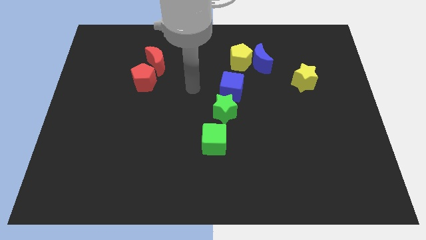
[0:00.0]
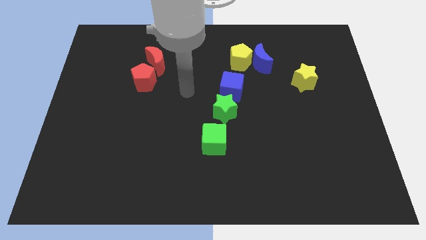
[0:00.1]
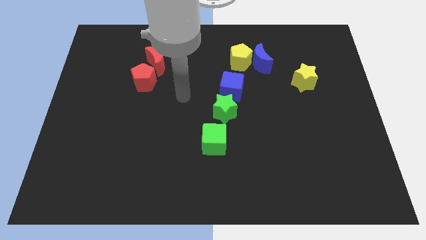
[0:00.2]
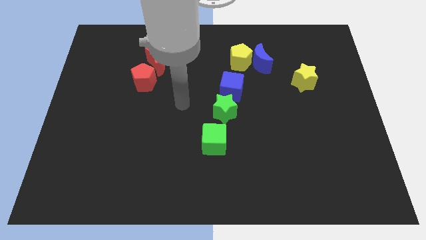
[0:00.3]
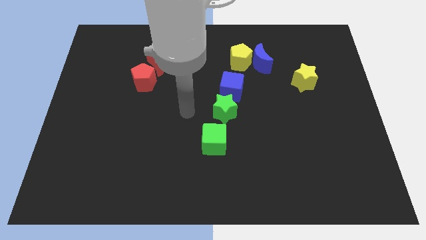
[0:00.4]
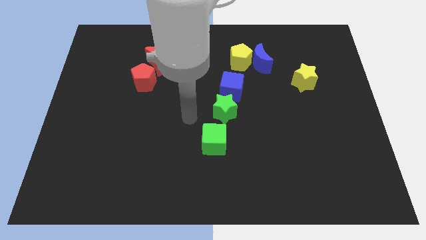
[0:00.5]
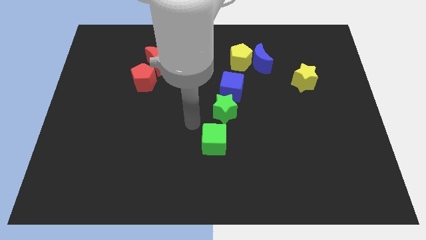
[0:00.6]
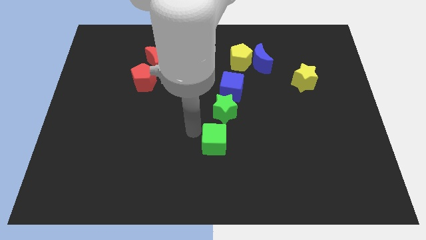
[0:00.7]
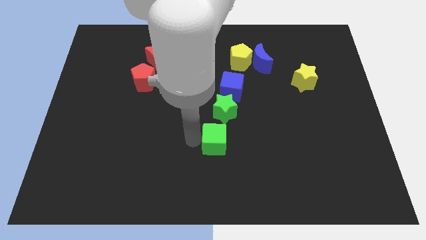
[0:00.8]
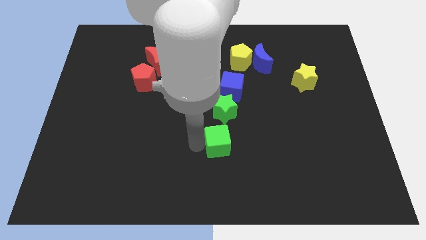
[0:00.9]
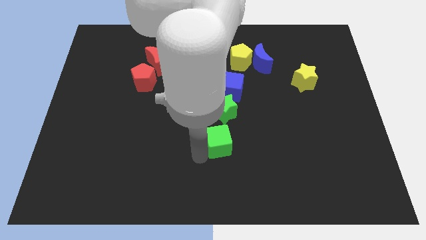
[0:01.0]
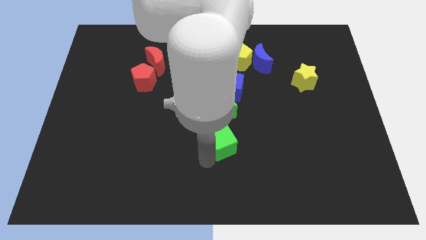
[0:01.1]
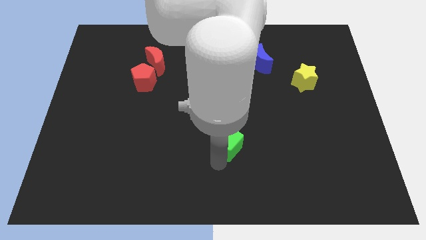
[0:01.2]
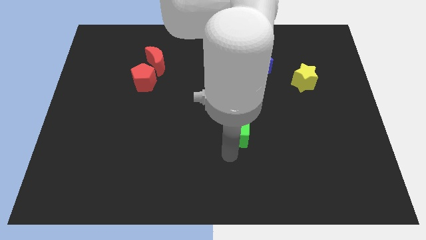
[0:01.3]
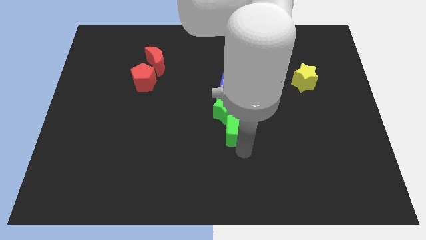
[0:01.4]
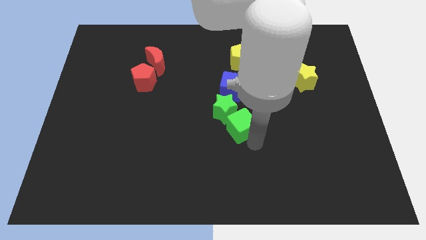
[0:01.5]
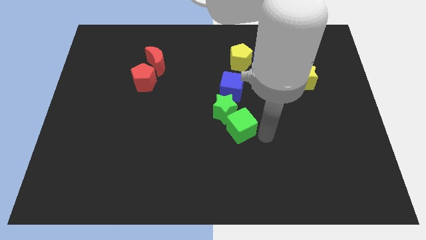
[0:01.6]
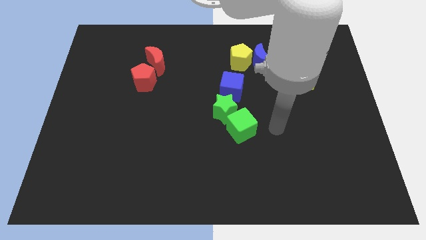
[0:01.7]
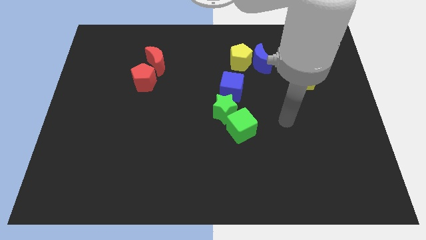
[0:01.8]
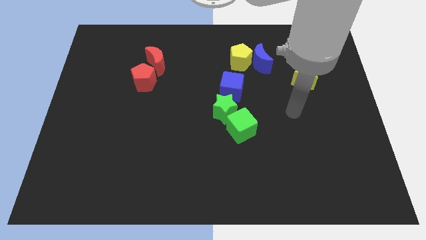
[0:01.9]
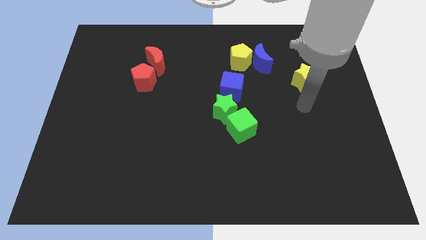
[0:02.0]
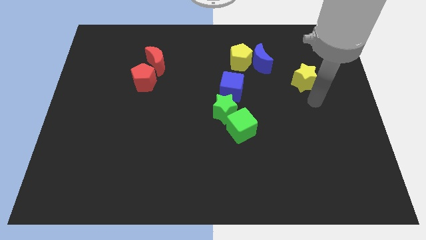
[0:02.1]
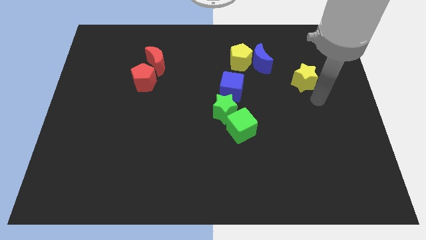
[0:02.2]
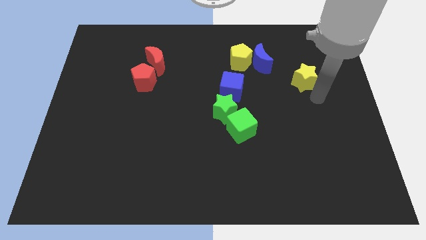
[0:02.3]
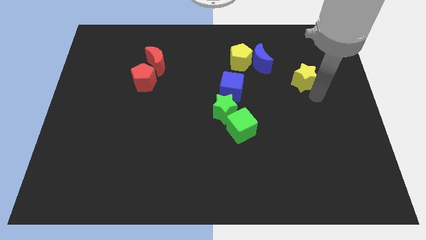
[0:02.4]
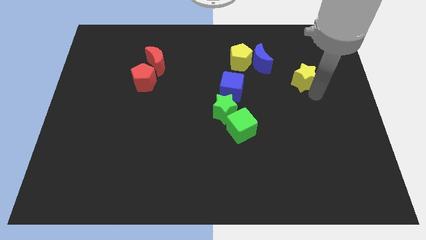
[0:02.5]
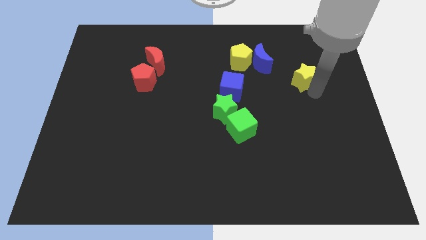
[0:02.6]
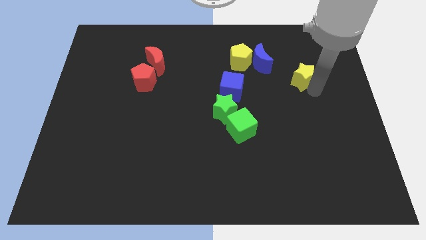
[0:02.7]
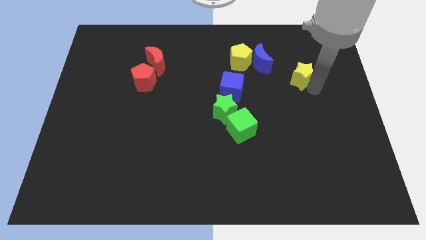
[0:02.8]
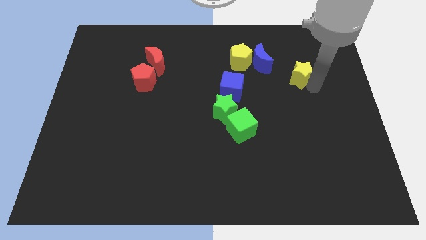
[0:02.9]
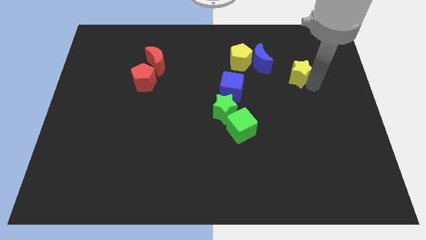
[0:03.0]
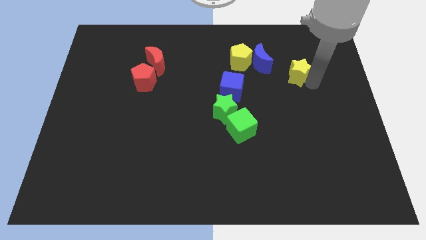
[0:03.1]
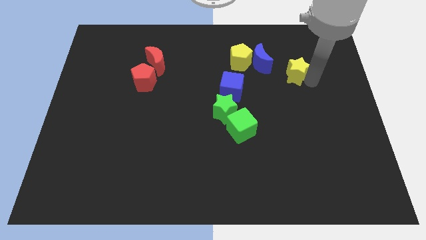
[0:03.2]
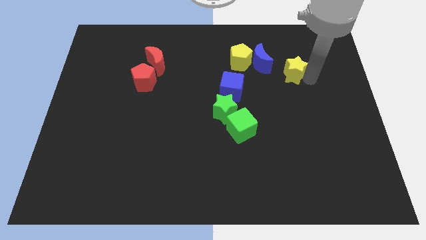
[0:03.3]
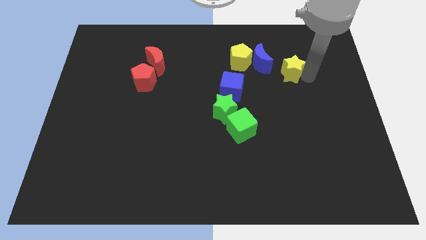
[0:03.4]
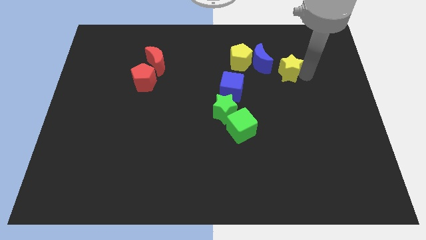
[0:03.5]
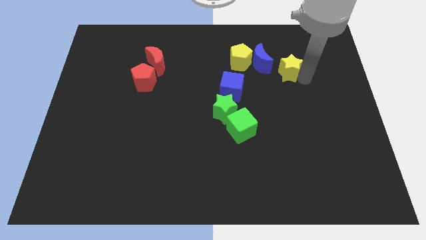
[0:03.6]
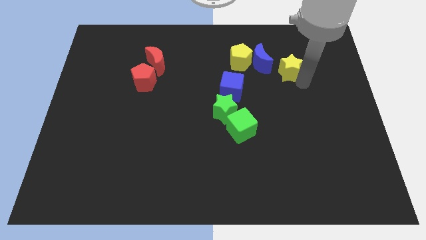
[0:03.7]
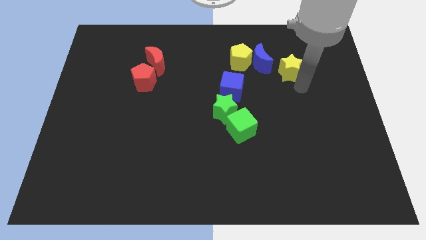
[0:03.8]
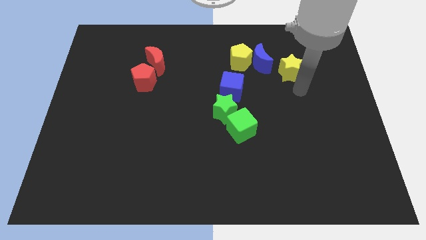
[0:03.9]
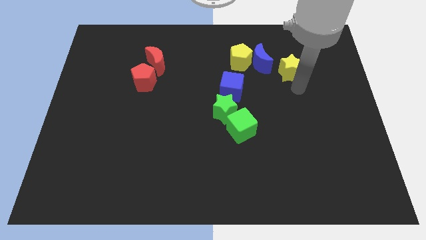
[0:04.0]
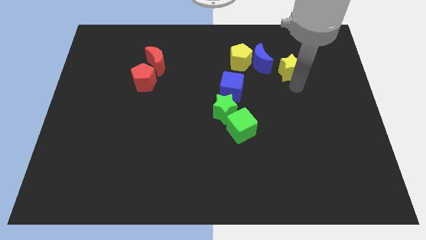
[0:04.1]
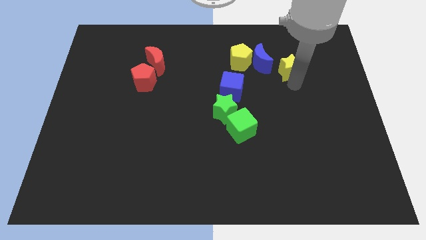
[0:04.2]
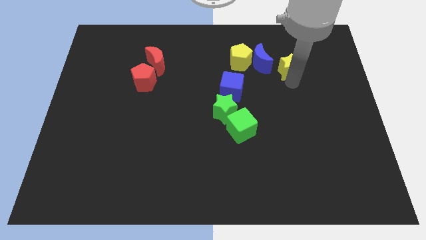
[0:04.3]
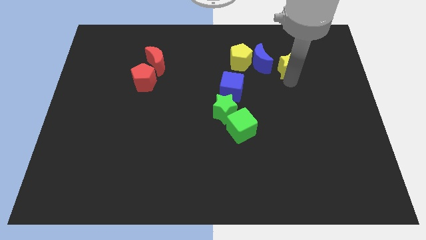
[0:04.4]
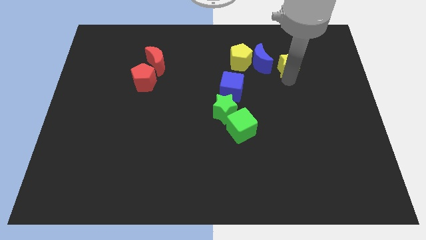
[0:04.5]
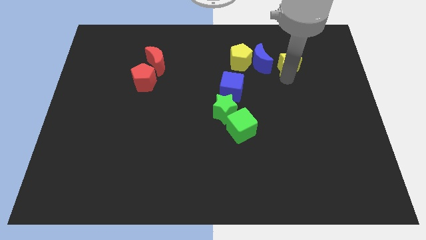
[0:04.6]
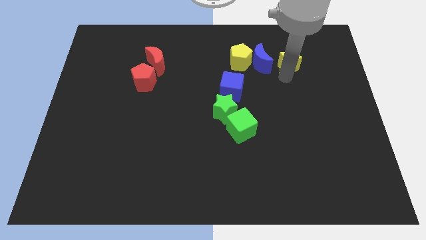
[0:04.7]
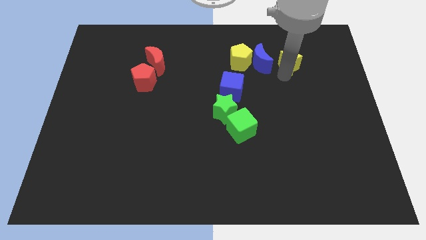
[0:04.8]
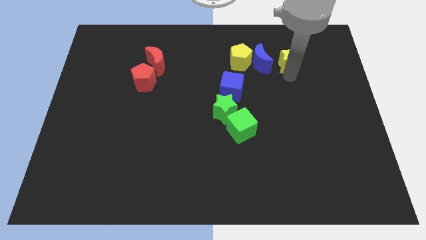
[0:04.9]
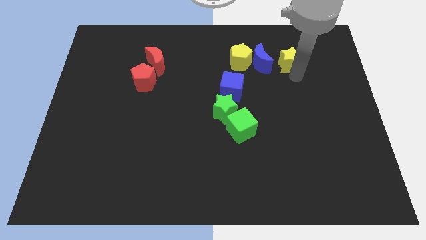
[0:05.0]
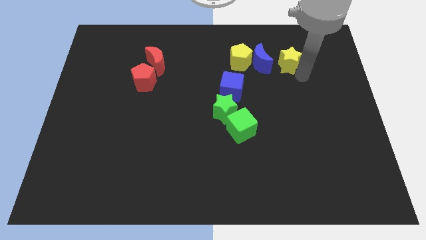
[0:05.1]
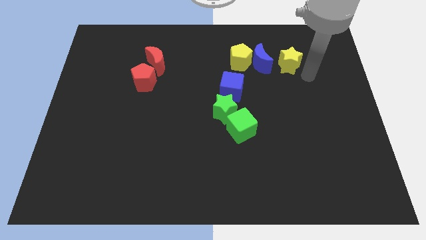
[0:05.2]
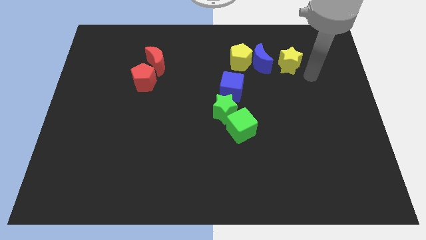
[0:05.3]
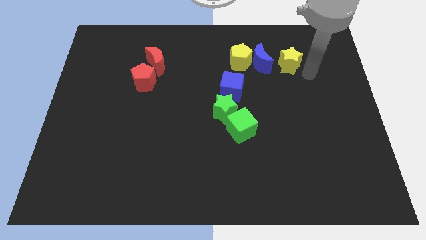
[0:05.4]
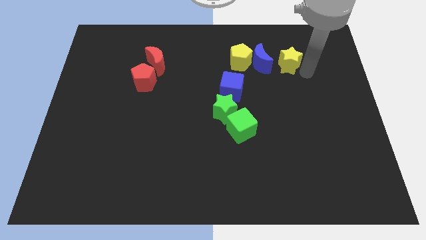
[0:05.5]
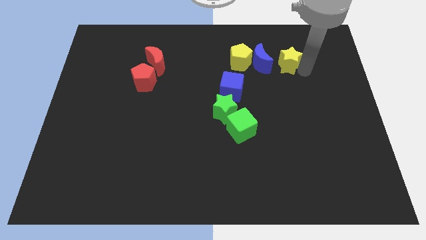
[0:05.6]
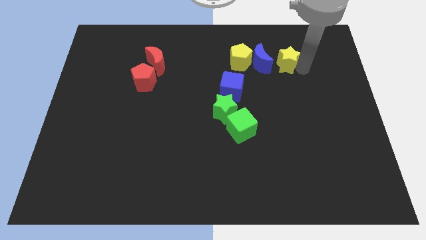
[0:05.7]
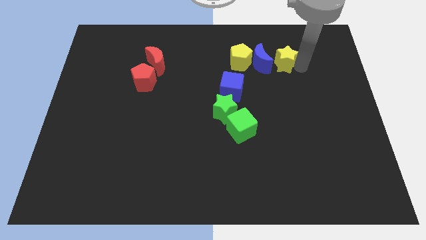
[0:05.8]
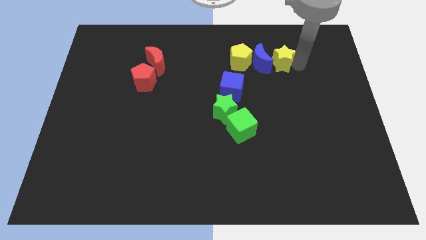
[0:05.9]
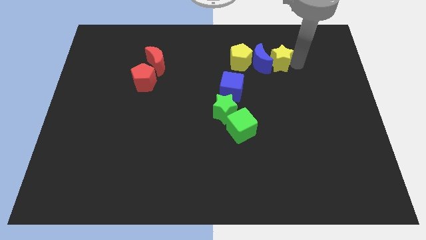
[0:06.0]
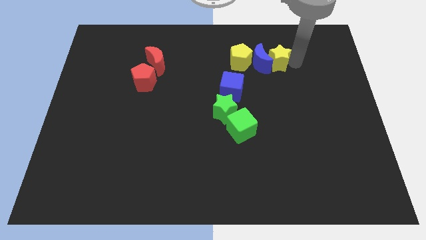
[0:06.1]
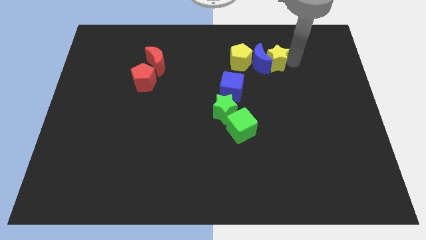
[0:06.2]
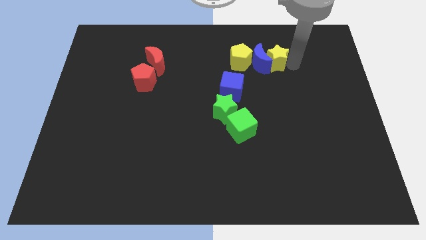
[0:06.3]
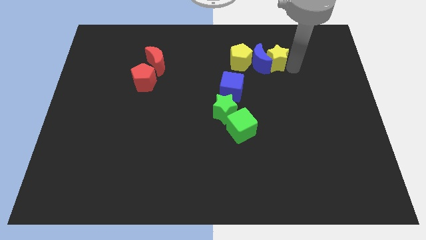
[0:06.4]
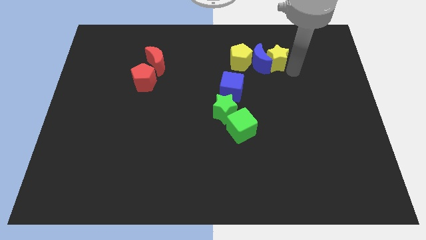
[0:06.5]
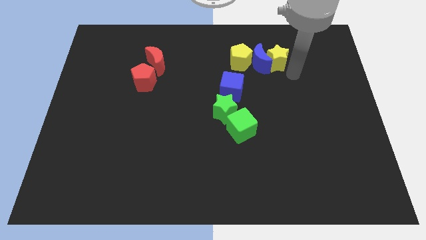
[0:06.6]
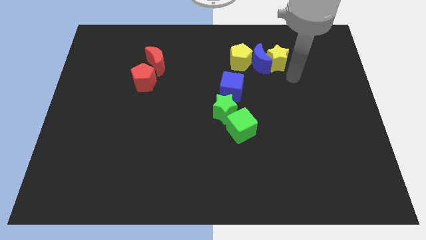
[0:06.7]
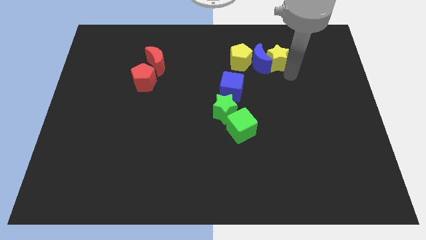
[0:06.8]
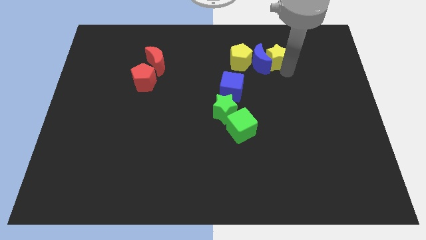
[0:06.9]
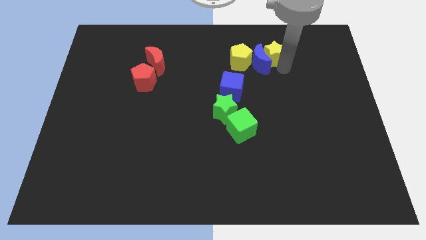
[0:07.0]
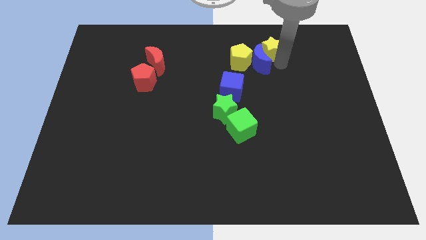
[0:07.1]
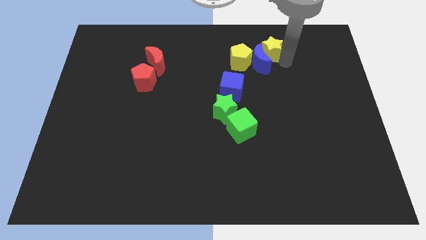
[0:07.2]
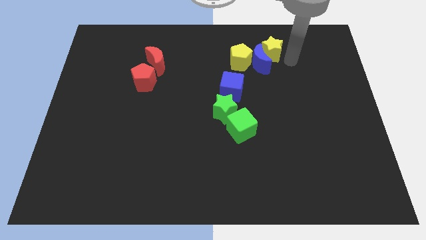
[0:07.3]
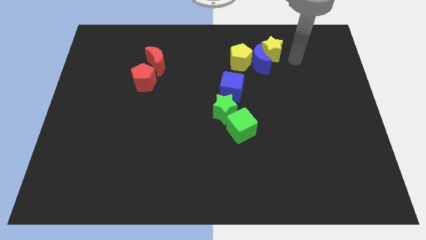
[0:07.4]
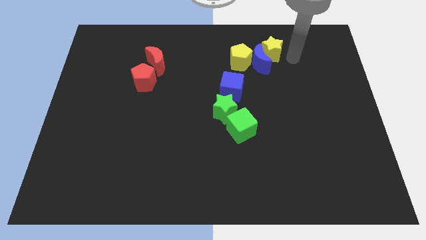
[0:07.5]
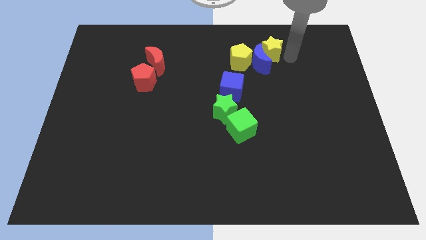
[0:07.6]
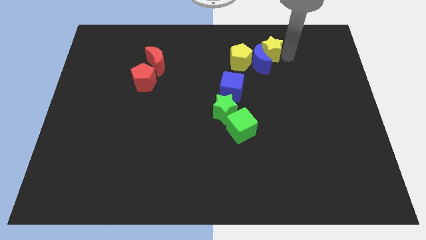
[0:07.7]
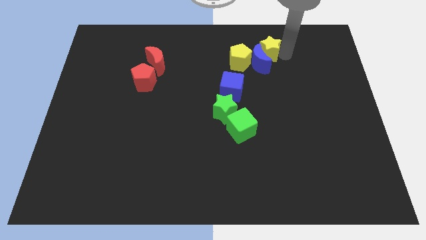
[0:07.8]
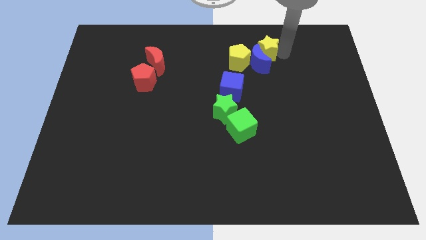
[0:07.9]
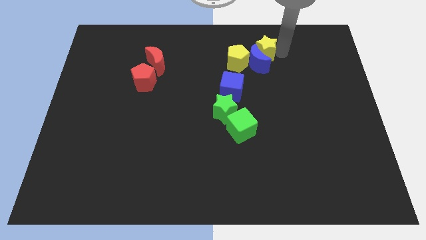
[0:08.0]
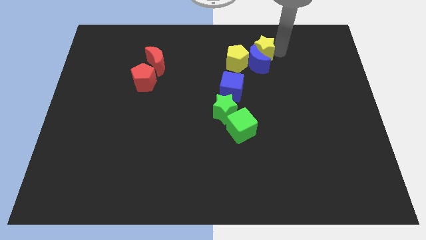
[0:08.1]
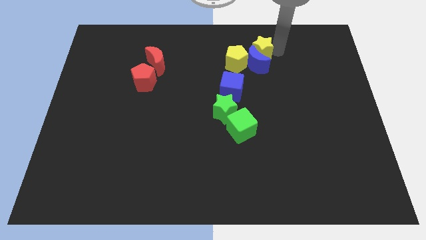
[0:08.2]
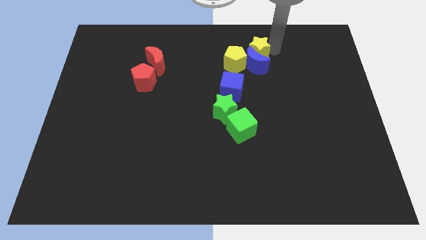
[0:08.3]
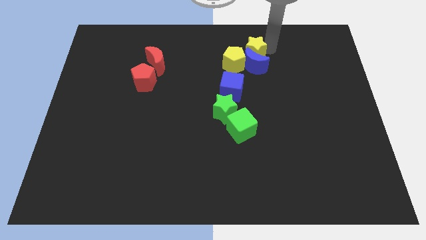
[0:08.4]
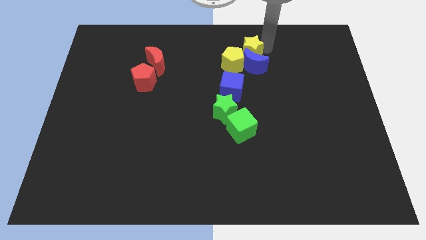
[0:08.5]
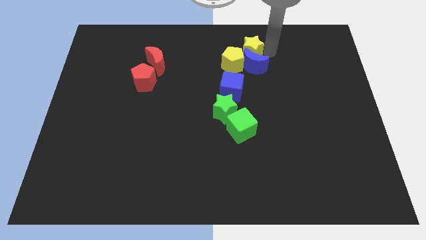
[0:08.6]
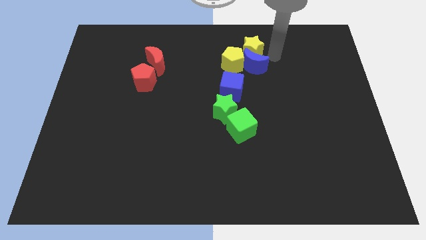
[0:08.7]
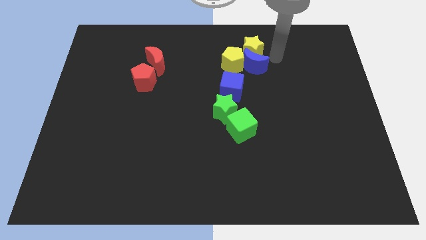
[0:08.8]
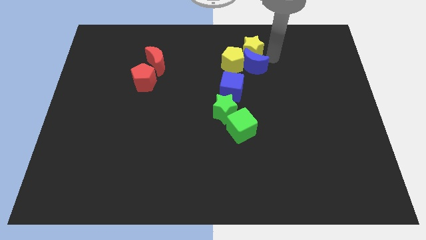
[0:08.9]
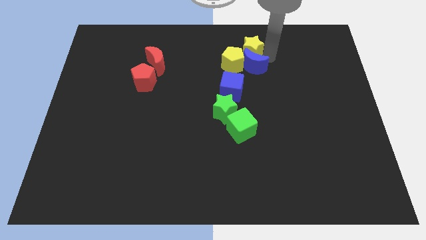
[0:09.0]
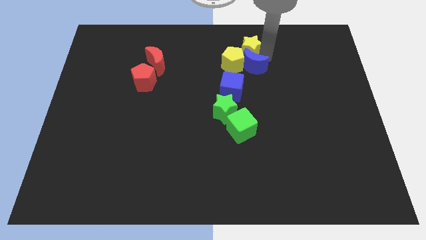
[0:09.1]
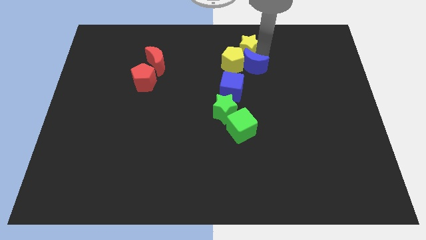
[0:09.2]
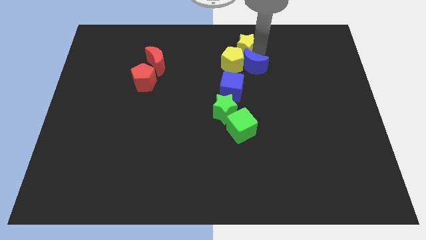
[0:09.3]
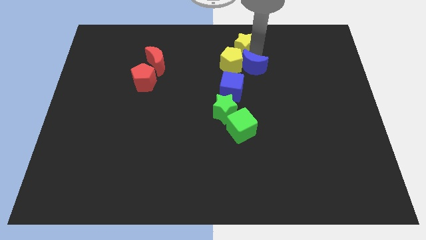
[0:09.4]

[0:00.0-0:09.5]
push the yellow star to the towards your base
